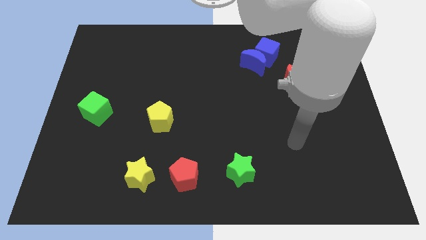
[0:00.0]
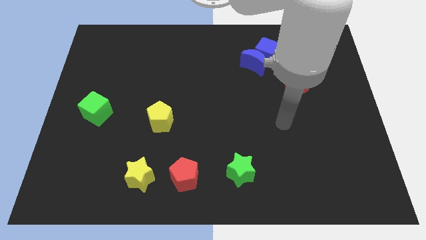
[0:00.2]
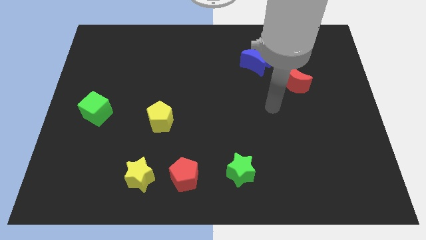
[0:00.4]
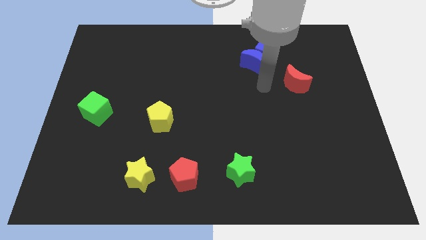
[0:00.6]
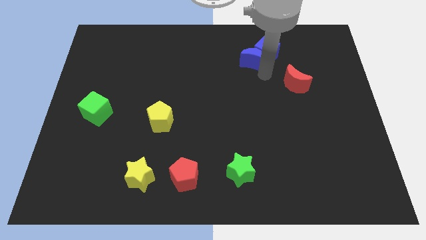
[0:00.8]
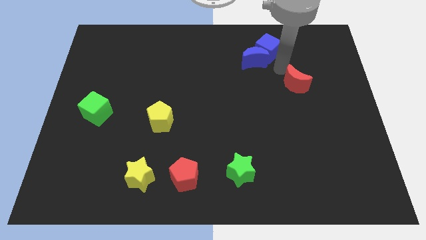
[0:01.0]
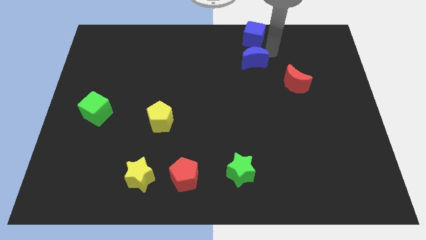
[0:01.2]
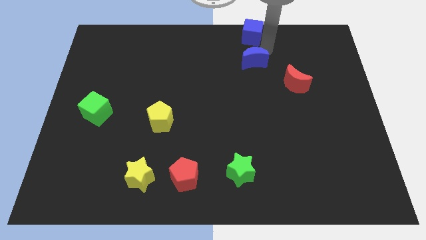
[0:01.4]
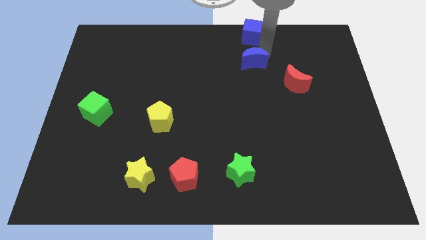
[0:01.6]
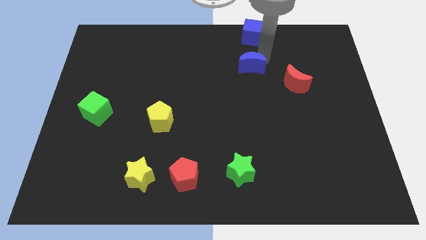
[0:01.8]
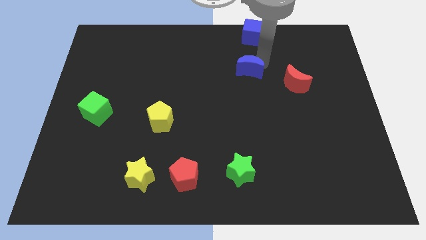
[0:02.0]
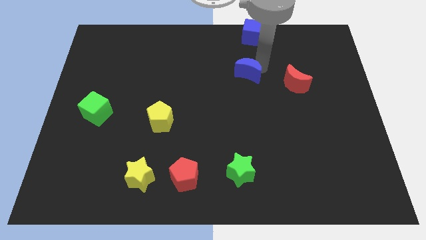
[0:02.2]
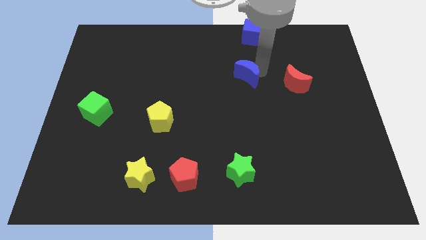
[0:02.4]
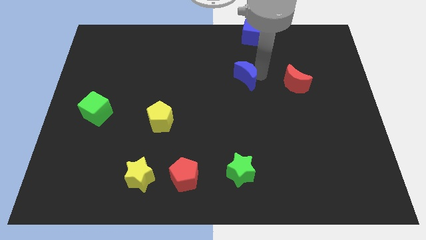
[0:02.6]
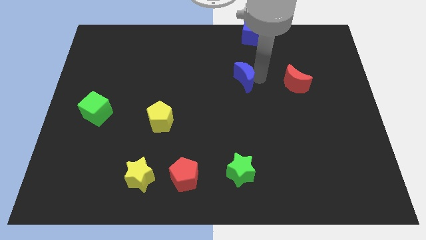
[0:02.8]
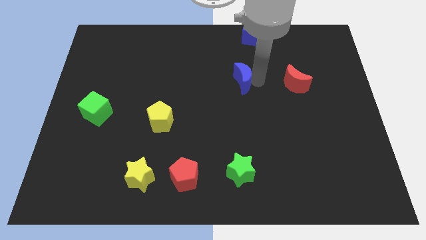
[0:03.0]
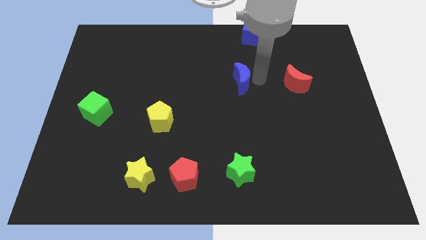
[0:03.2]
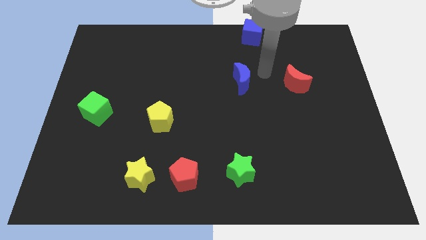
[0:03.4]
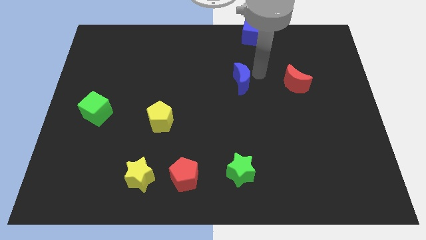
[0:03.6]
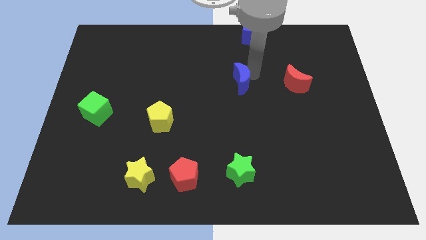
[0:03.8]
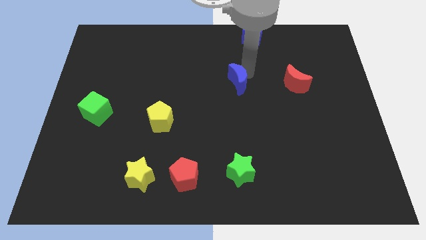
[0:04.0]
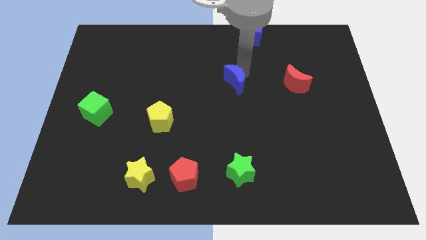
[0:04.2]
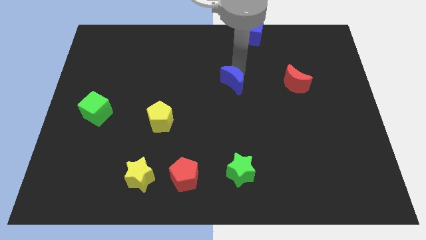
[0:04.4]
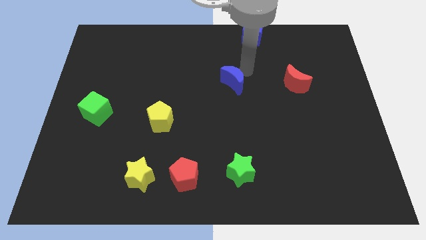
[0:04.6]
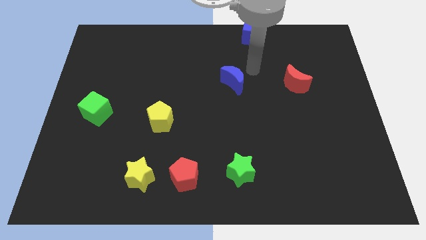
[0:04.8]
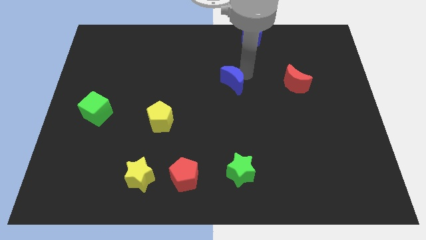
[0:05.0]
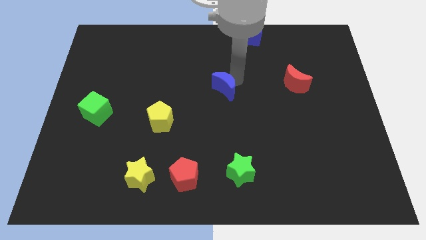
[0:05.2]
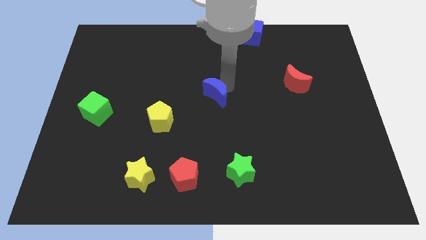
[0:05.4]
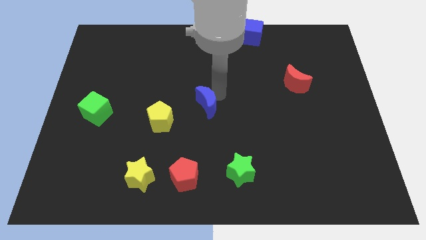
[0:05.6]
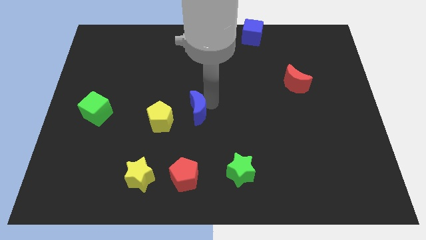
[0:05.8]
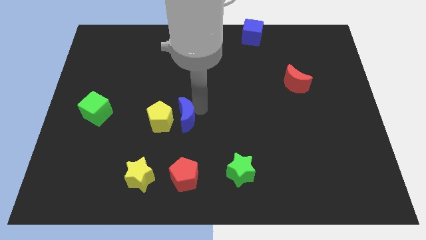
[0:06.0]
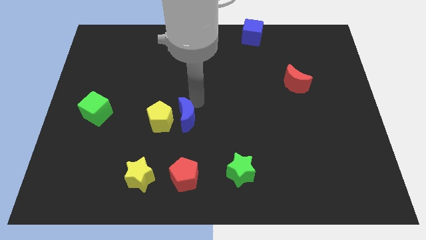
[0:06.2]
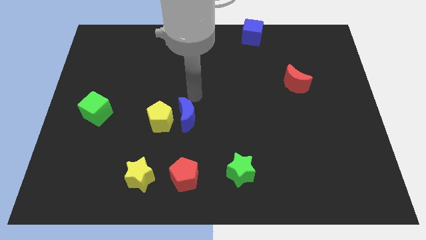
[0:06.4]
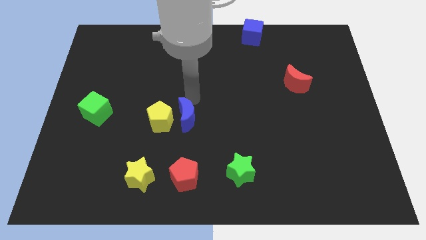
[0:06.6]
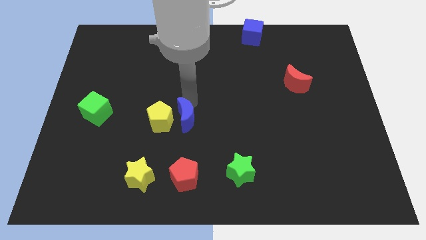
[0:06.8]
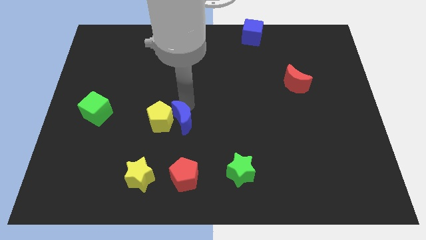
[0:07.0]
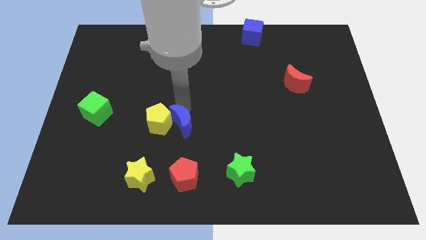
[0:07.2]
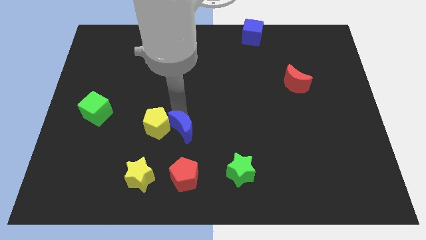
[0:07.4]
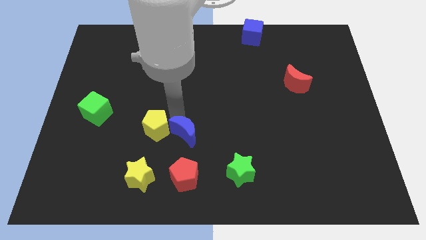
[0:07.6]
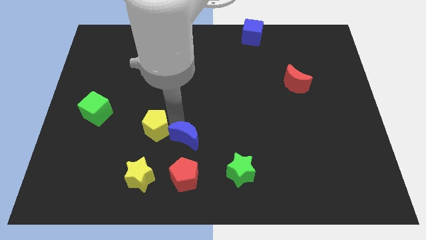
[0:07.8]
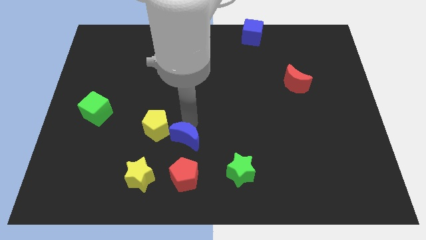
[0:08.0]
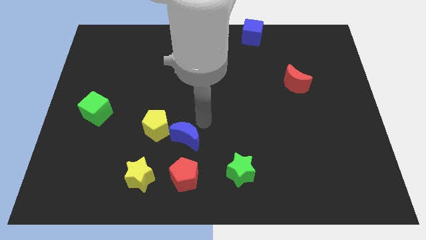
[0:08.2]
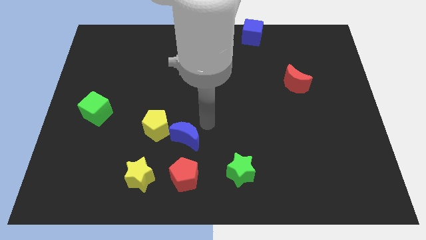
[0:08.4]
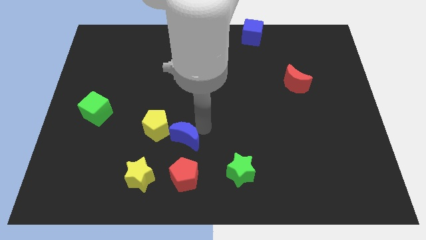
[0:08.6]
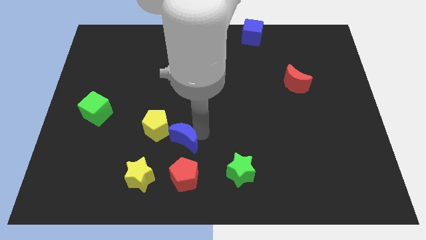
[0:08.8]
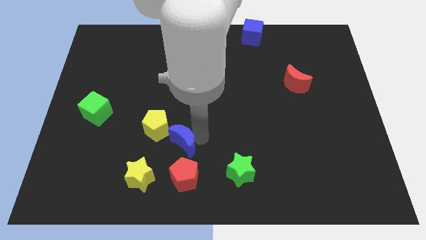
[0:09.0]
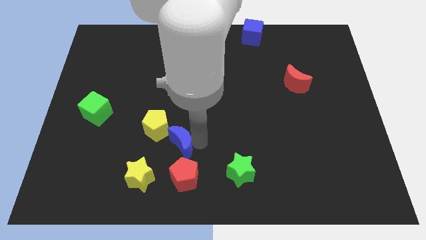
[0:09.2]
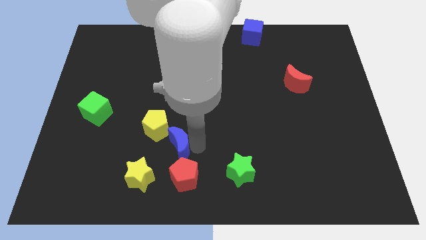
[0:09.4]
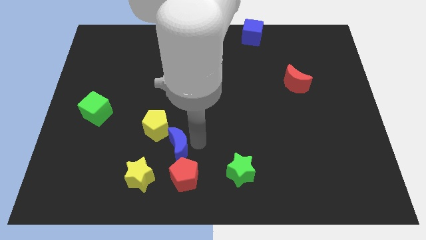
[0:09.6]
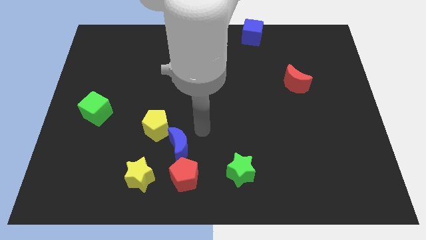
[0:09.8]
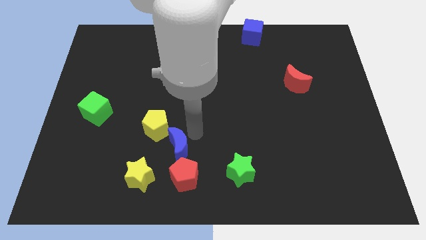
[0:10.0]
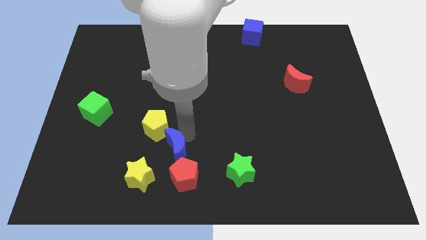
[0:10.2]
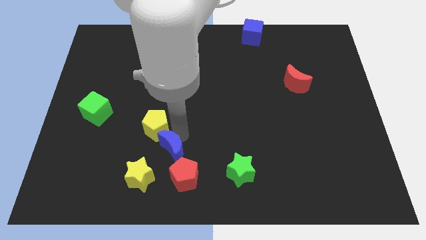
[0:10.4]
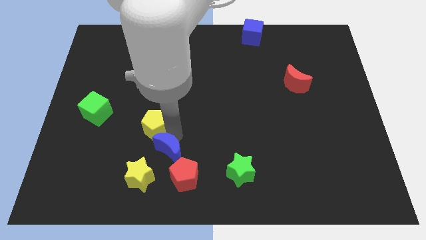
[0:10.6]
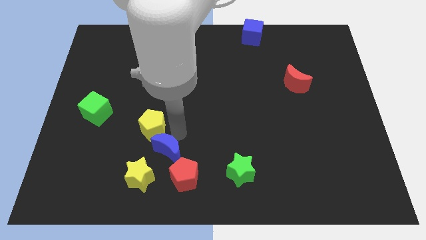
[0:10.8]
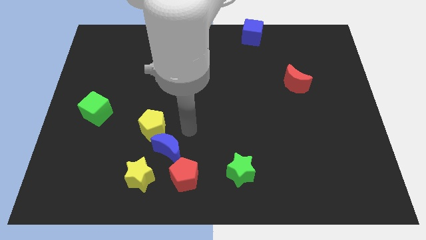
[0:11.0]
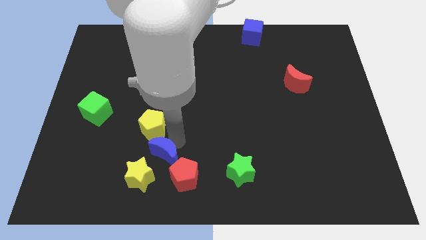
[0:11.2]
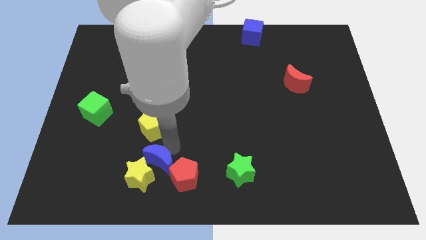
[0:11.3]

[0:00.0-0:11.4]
push the blue moon close to the yellow star

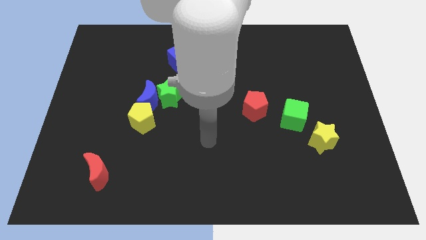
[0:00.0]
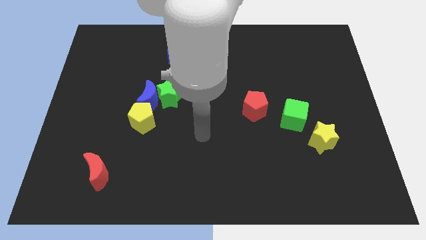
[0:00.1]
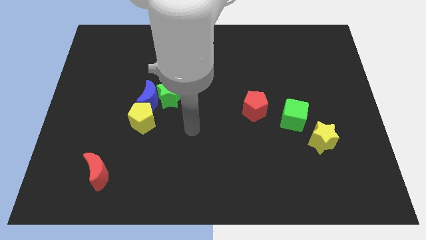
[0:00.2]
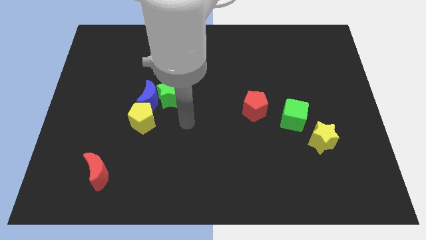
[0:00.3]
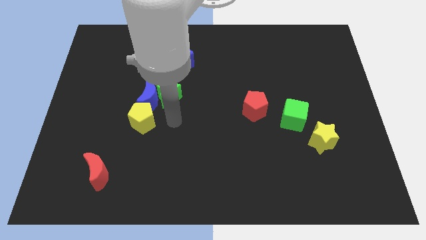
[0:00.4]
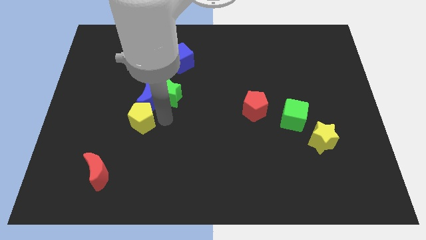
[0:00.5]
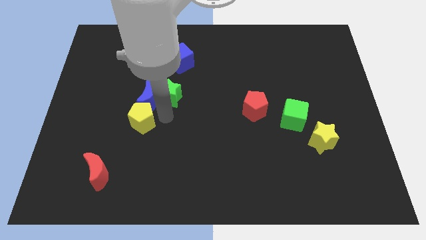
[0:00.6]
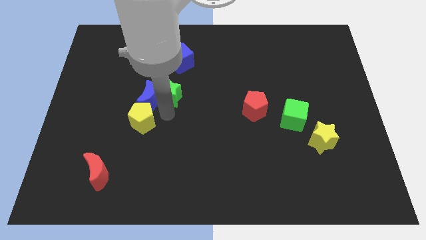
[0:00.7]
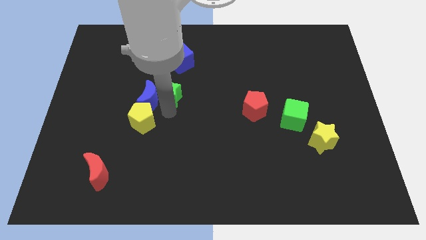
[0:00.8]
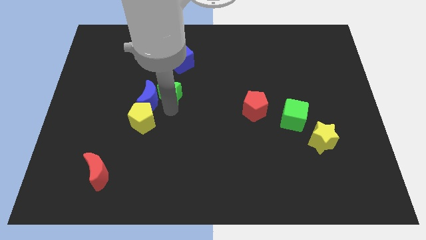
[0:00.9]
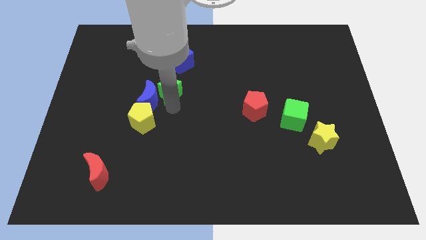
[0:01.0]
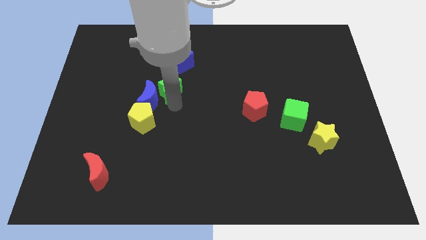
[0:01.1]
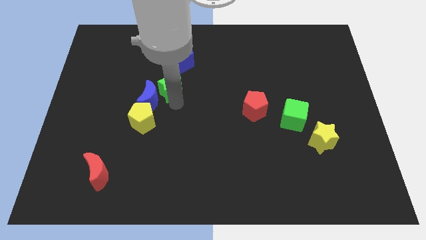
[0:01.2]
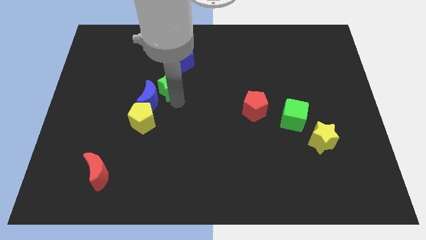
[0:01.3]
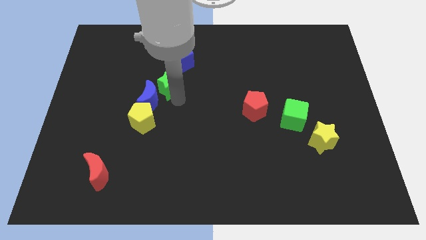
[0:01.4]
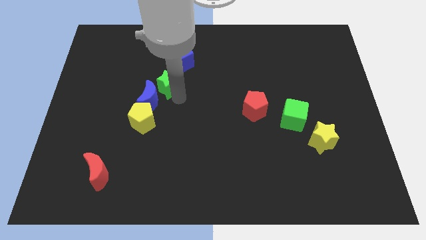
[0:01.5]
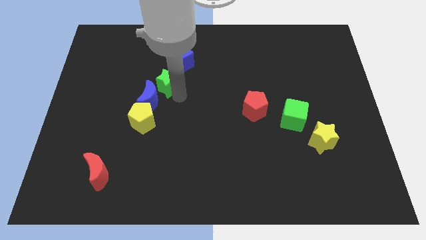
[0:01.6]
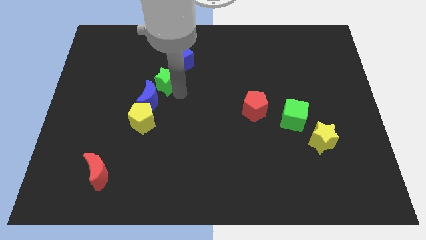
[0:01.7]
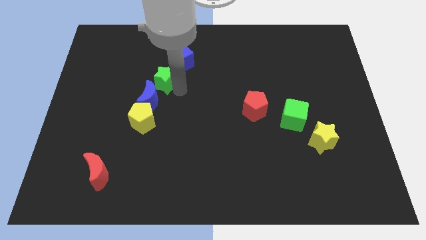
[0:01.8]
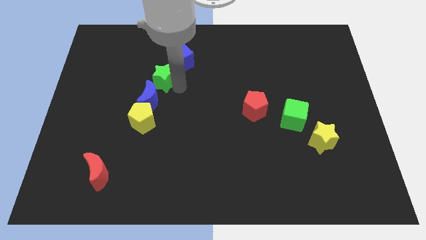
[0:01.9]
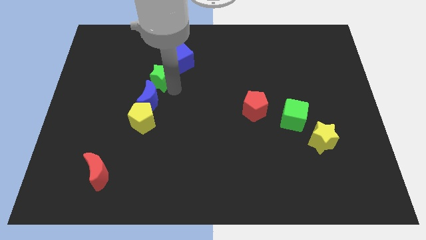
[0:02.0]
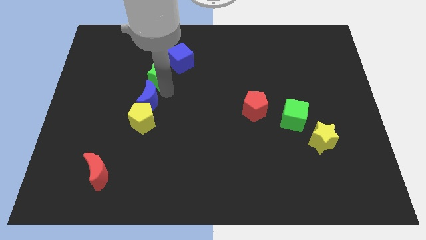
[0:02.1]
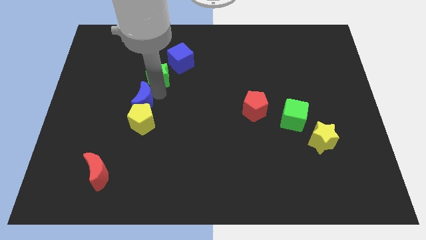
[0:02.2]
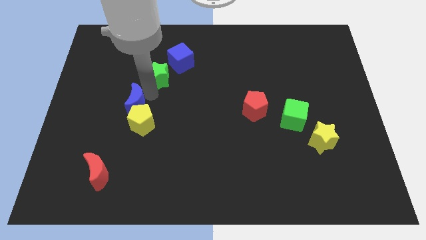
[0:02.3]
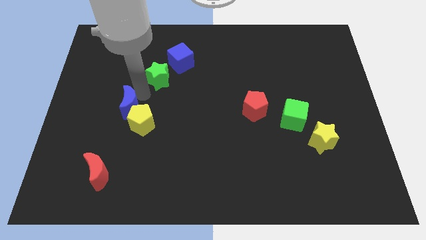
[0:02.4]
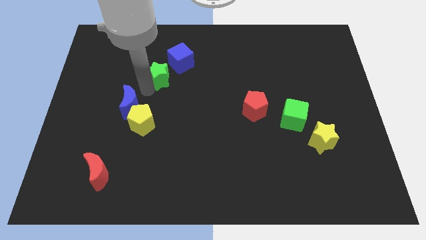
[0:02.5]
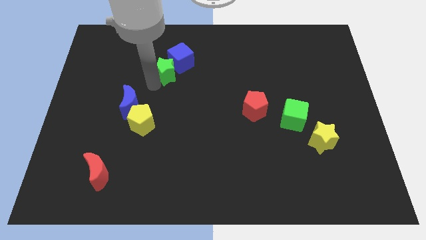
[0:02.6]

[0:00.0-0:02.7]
put the green star close to the blue cube
